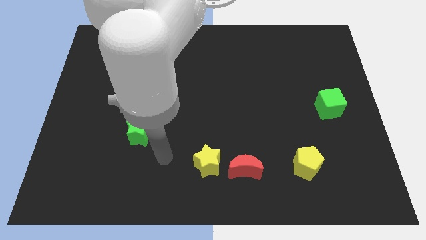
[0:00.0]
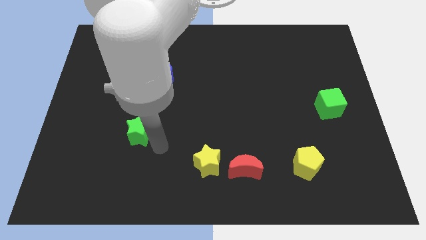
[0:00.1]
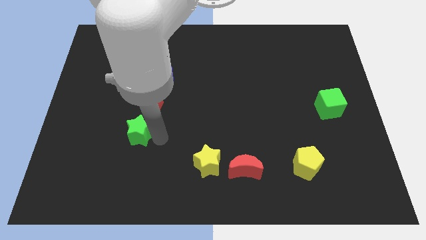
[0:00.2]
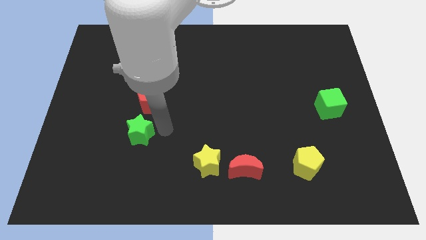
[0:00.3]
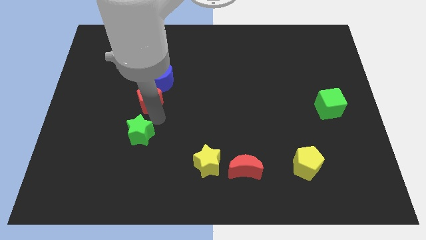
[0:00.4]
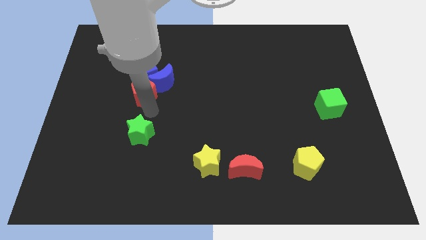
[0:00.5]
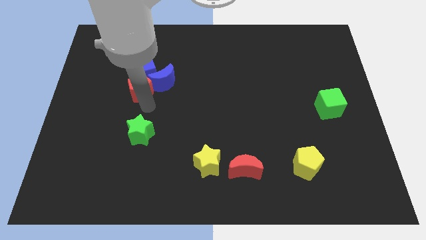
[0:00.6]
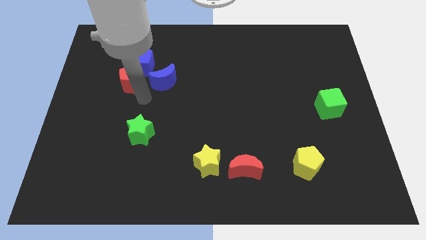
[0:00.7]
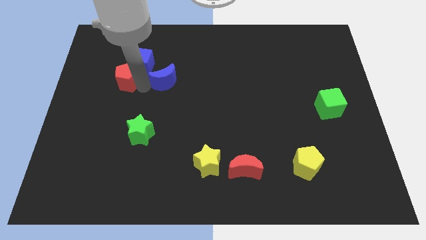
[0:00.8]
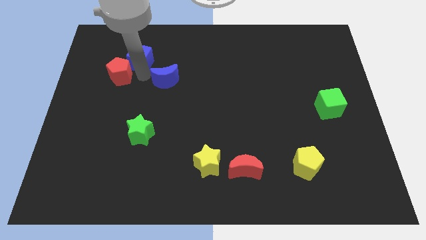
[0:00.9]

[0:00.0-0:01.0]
move the blue moon away from the blue cube and red pentagon

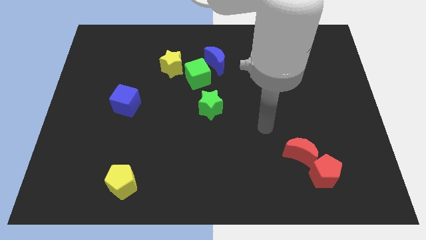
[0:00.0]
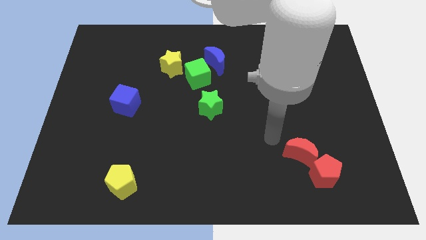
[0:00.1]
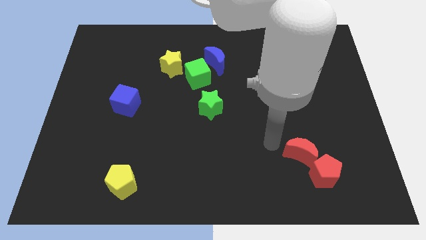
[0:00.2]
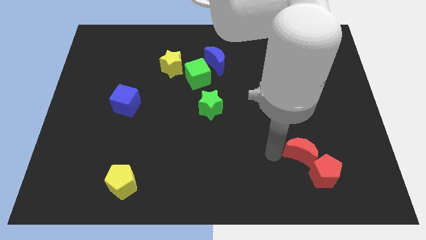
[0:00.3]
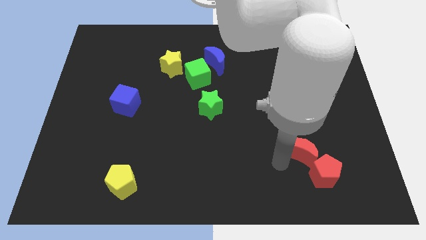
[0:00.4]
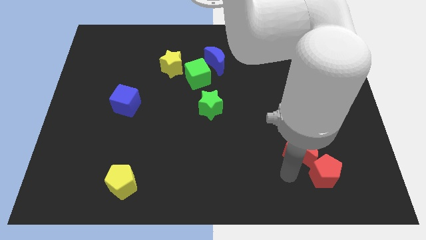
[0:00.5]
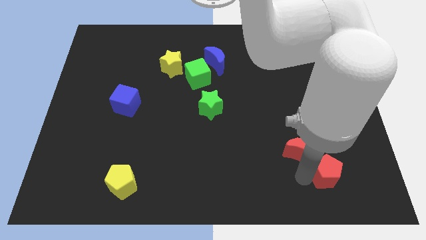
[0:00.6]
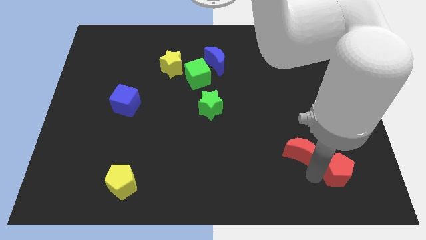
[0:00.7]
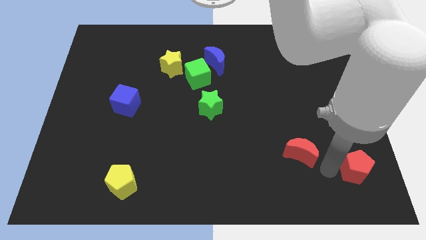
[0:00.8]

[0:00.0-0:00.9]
pull the red moon apart from the red pentagon

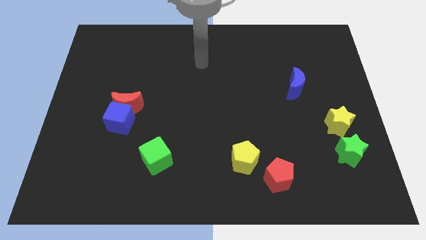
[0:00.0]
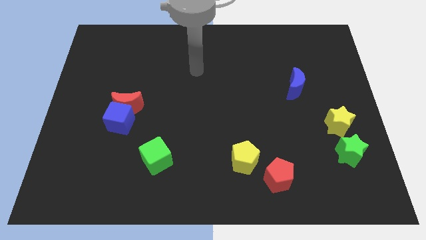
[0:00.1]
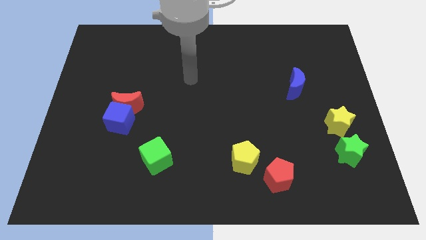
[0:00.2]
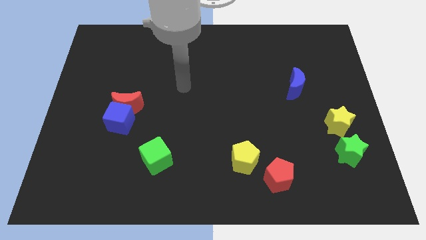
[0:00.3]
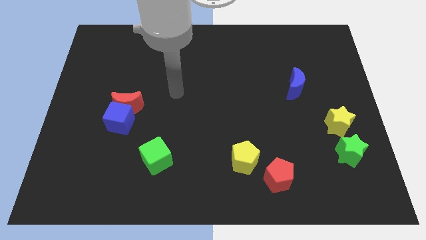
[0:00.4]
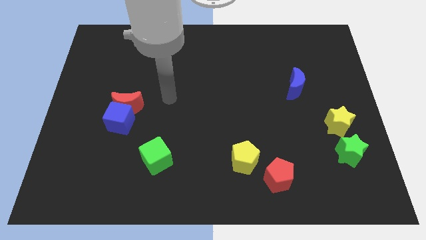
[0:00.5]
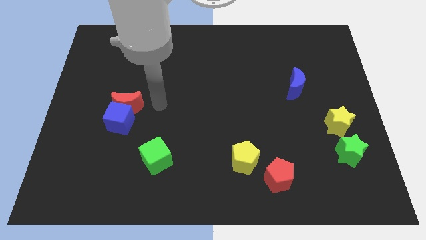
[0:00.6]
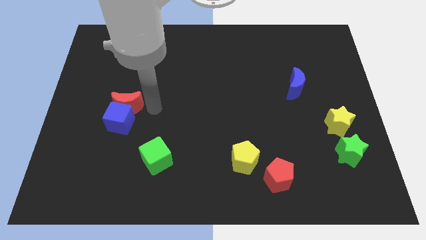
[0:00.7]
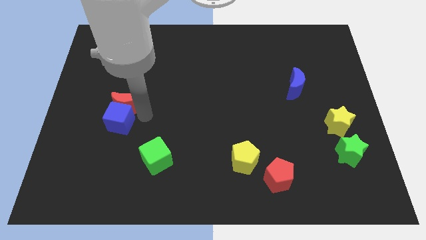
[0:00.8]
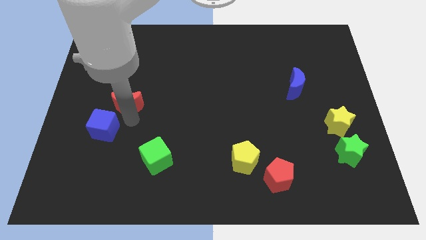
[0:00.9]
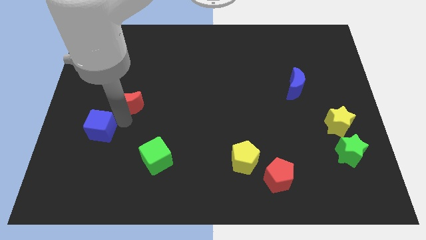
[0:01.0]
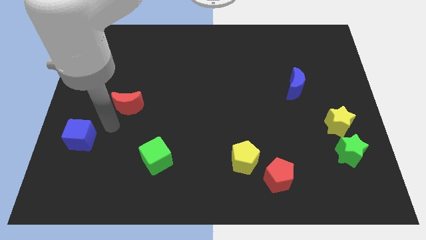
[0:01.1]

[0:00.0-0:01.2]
move the red moon away from the blue cube

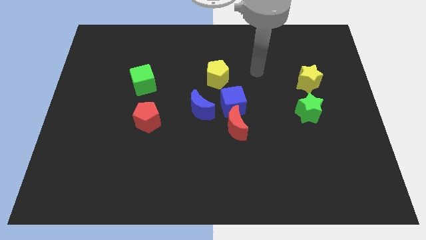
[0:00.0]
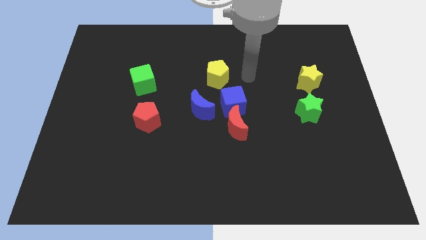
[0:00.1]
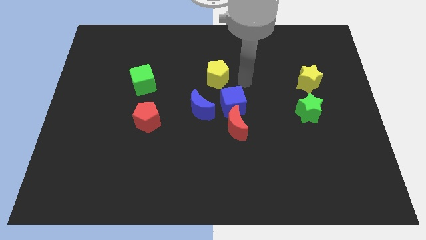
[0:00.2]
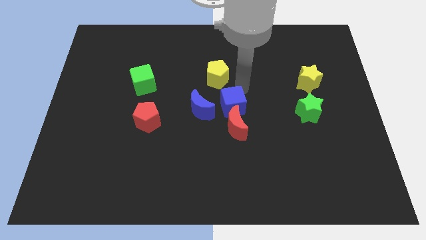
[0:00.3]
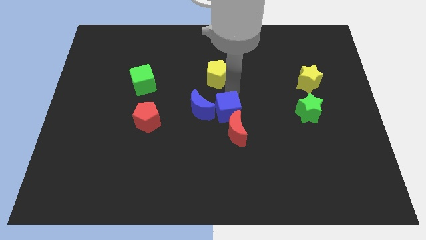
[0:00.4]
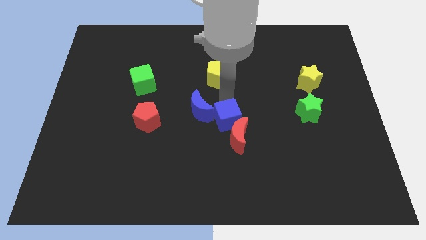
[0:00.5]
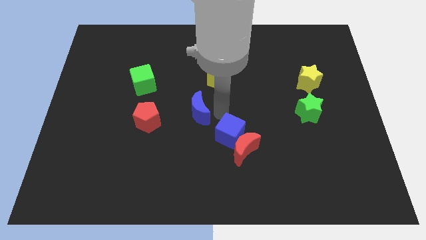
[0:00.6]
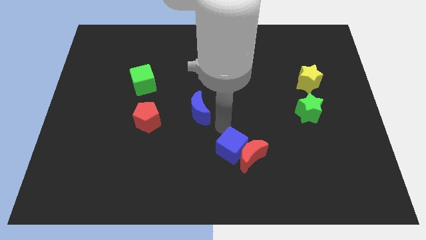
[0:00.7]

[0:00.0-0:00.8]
pull the red moon apart from the blue cube and blue moon

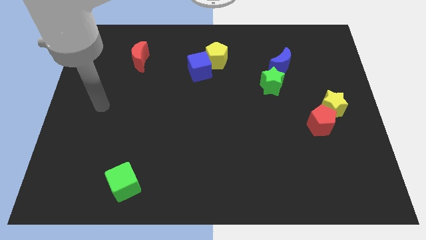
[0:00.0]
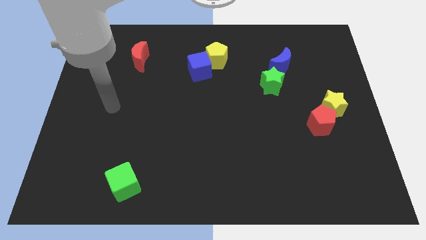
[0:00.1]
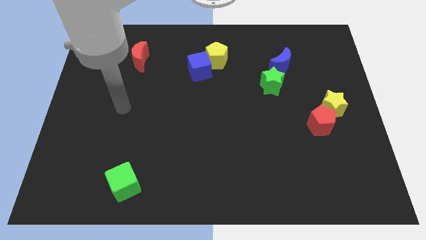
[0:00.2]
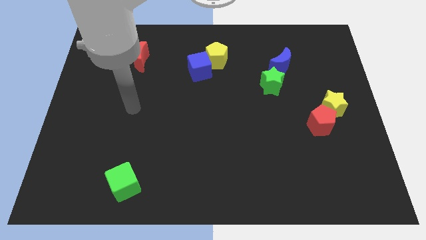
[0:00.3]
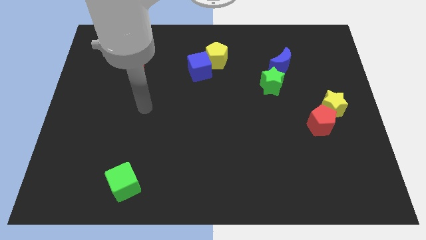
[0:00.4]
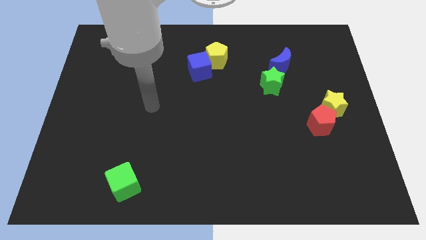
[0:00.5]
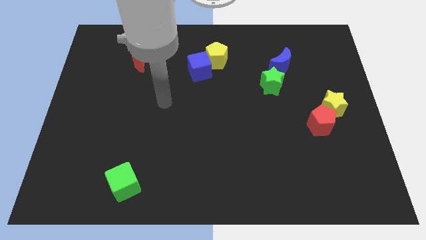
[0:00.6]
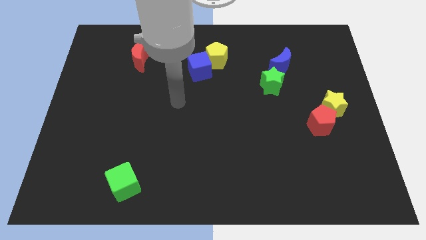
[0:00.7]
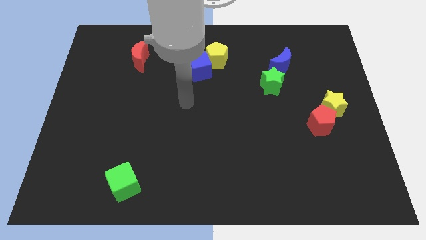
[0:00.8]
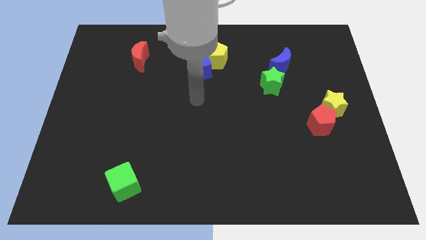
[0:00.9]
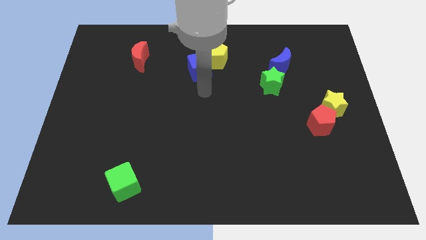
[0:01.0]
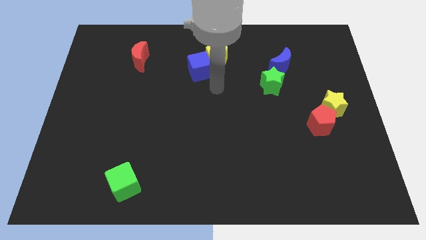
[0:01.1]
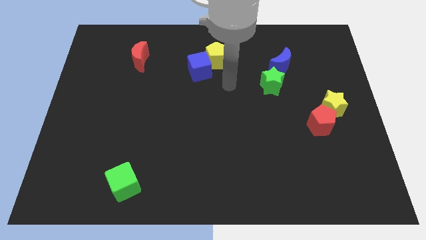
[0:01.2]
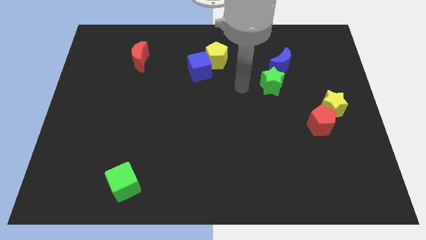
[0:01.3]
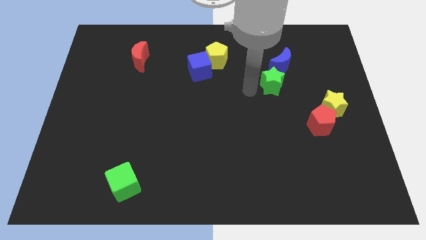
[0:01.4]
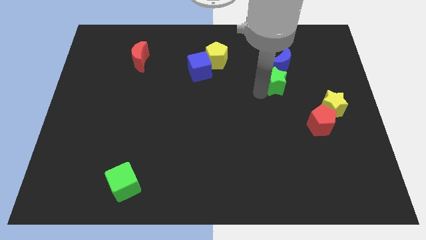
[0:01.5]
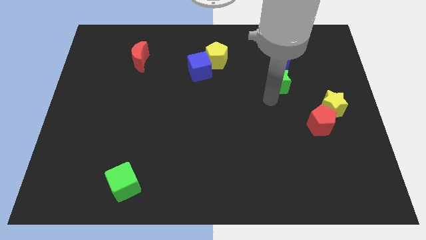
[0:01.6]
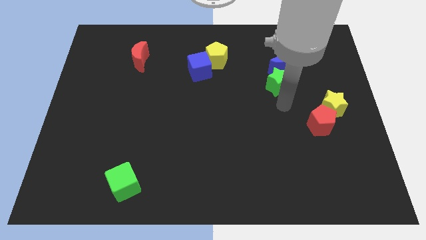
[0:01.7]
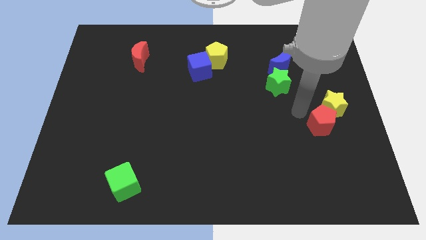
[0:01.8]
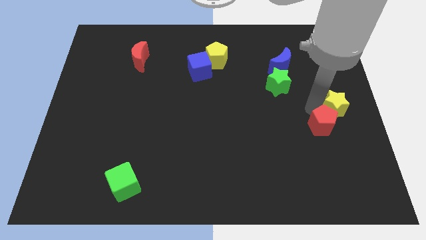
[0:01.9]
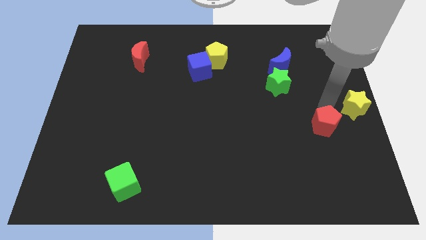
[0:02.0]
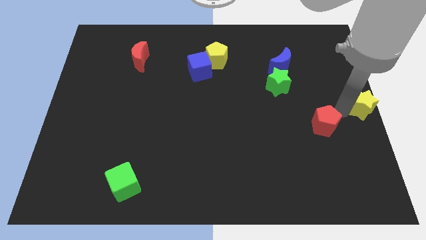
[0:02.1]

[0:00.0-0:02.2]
pull the red pentagon apart from the yellow star

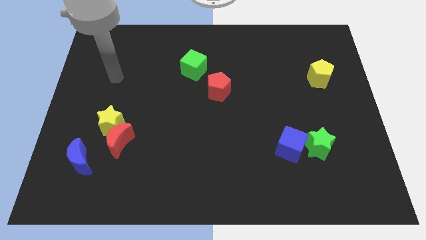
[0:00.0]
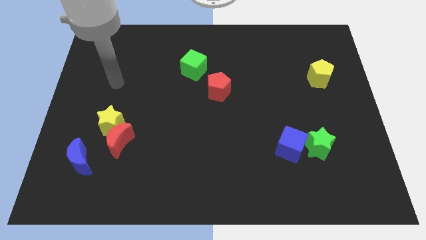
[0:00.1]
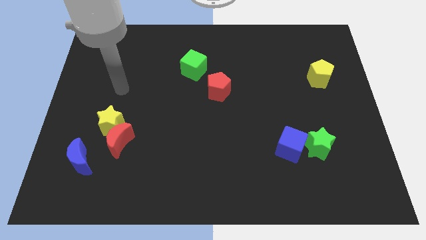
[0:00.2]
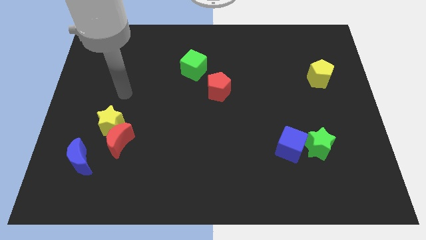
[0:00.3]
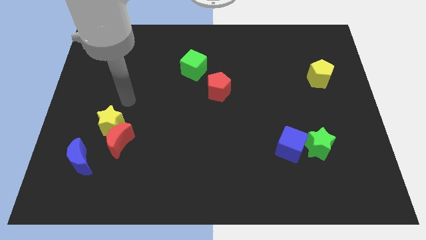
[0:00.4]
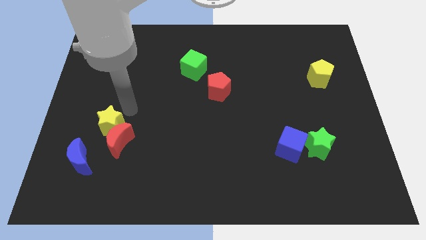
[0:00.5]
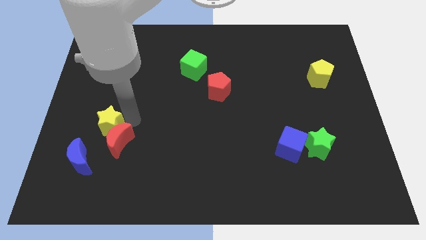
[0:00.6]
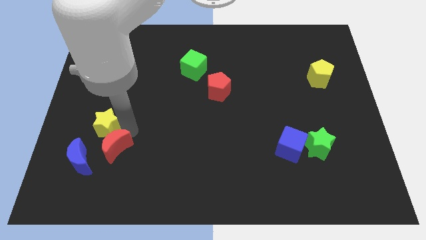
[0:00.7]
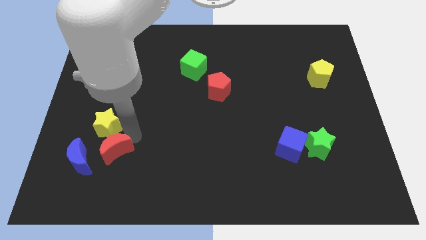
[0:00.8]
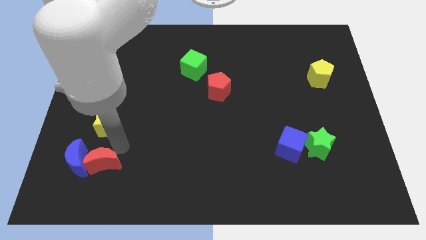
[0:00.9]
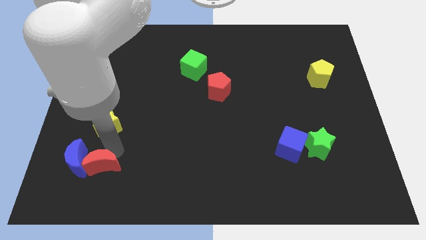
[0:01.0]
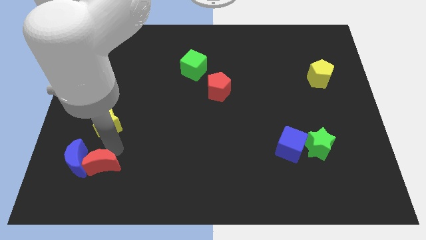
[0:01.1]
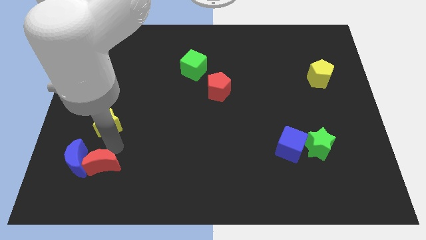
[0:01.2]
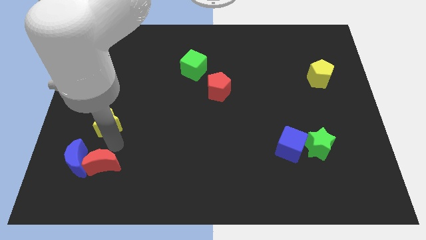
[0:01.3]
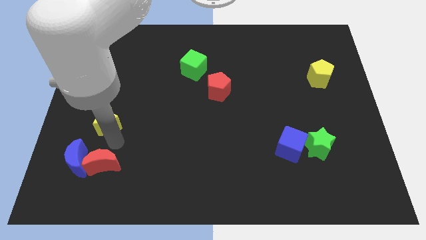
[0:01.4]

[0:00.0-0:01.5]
move the yellow star away from the red moon

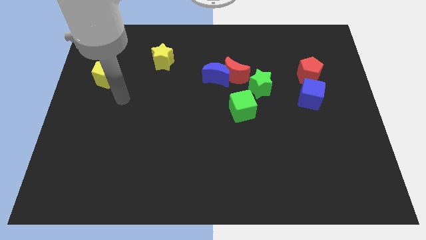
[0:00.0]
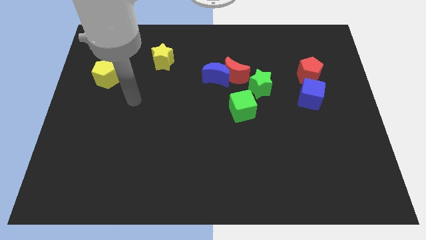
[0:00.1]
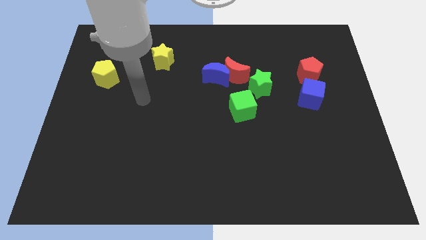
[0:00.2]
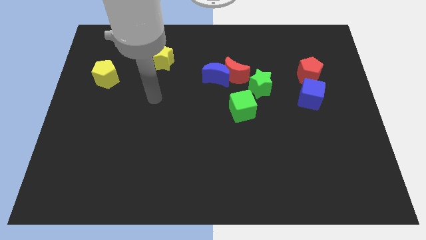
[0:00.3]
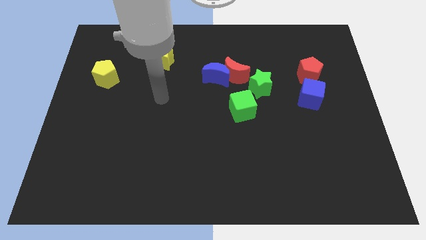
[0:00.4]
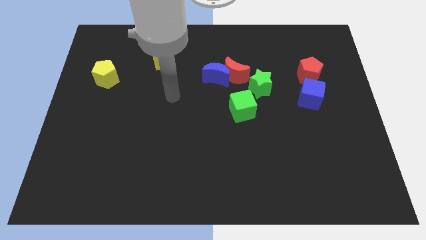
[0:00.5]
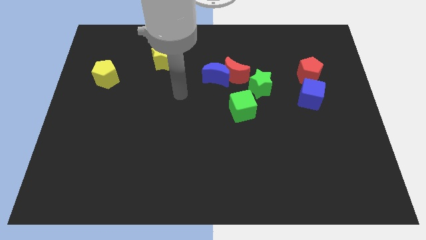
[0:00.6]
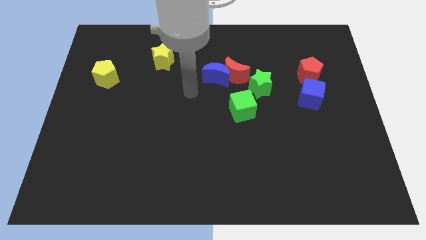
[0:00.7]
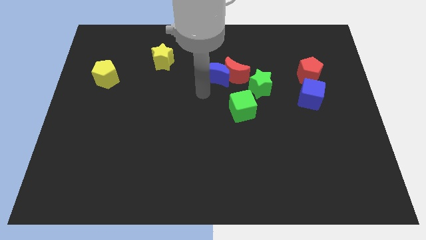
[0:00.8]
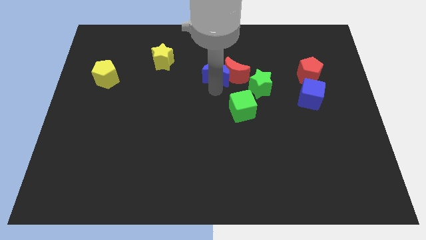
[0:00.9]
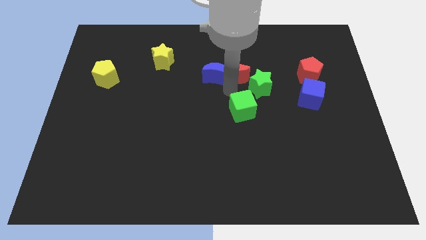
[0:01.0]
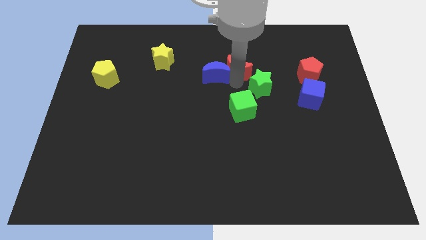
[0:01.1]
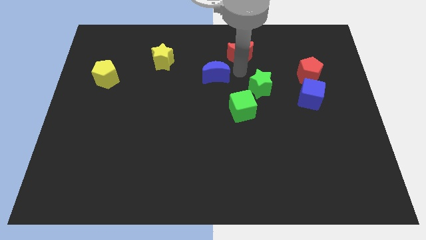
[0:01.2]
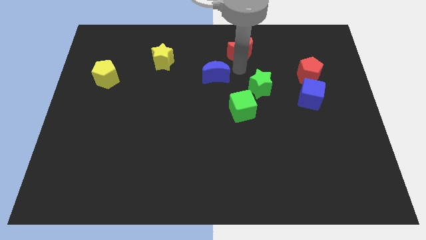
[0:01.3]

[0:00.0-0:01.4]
pull the blue moon apart from the red moon

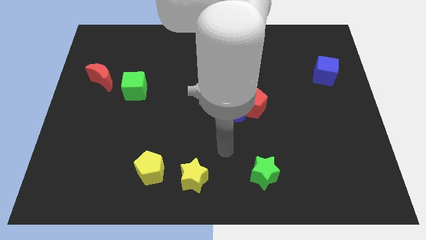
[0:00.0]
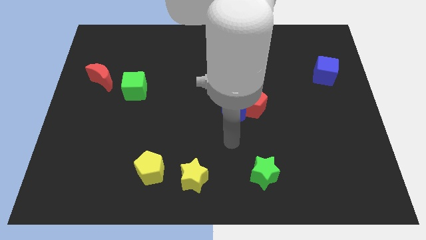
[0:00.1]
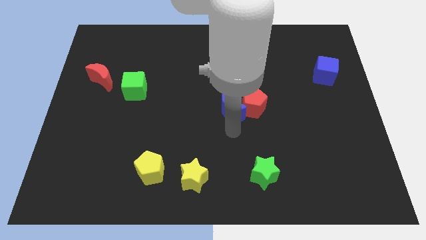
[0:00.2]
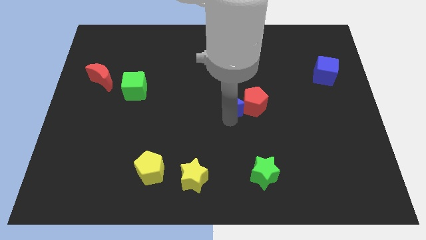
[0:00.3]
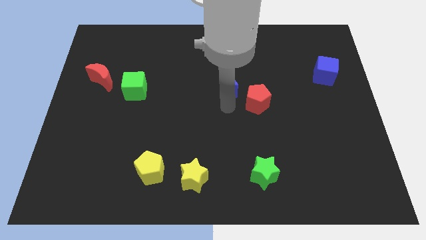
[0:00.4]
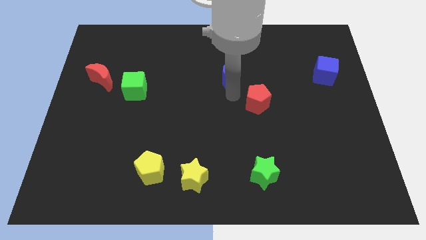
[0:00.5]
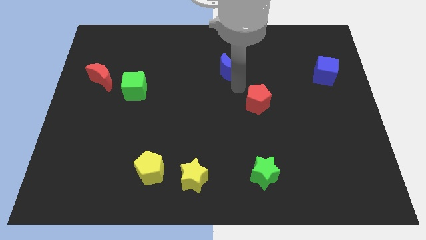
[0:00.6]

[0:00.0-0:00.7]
move the red pentagon away from the blue moon
